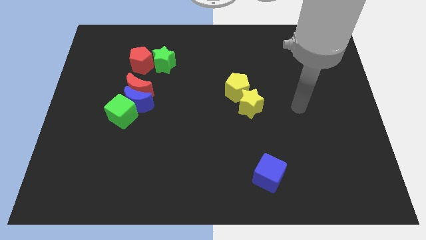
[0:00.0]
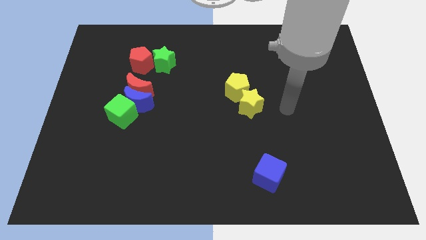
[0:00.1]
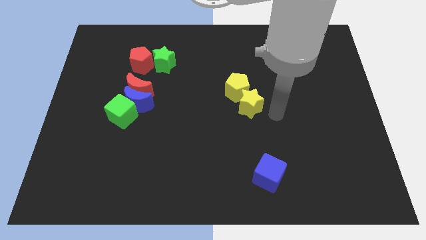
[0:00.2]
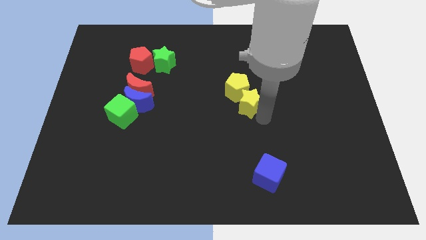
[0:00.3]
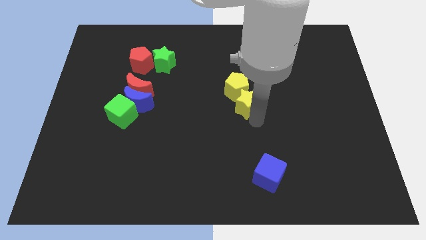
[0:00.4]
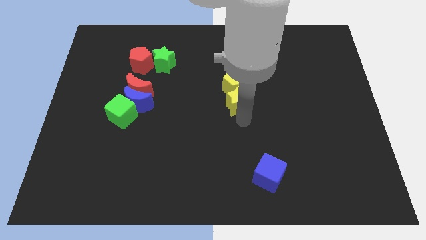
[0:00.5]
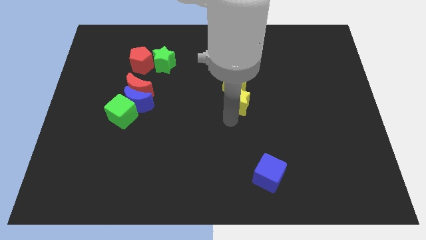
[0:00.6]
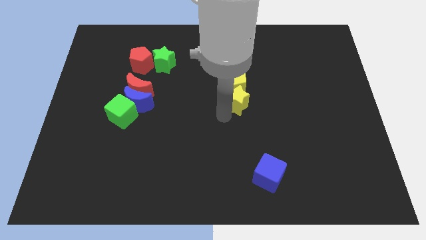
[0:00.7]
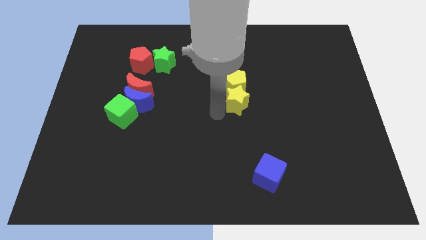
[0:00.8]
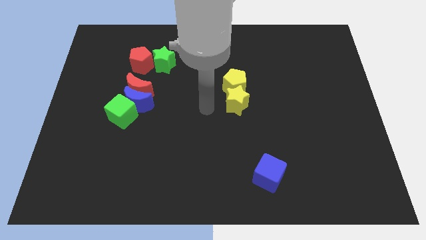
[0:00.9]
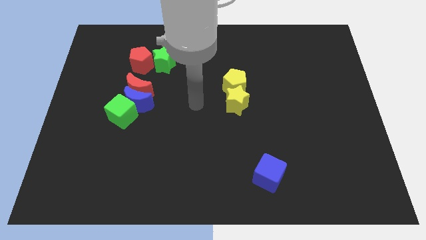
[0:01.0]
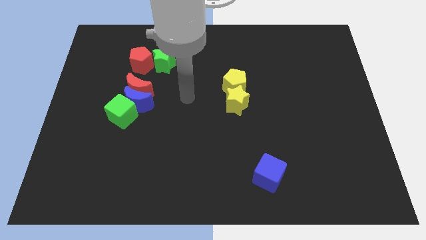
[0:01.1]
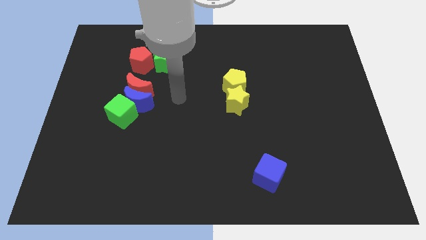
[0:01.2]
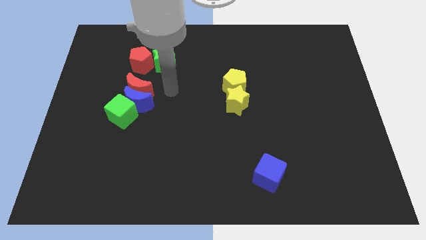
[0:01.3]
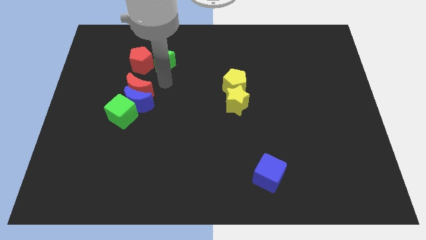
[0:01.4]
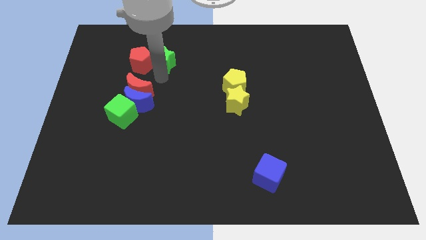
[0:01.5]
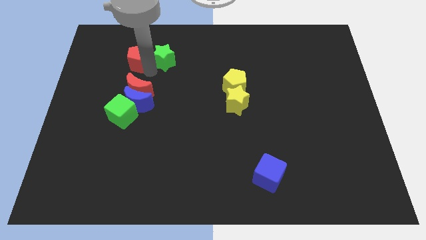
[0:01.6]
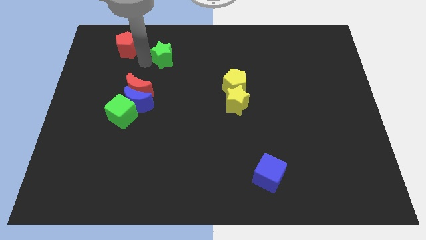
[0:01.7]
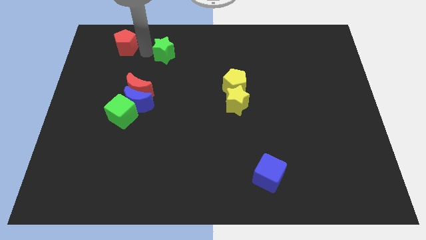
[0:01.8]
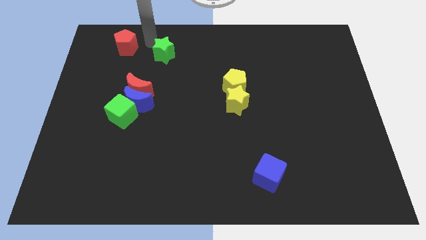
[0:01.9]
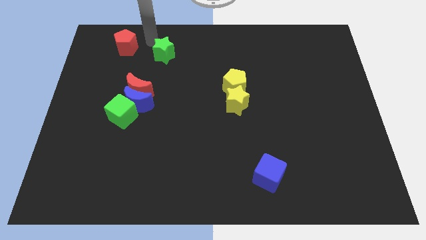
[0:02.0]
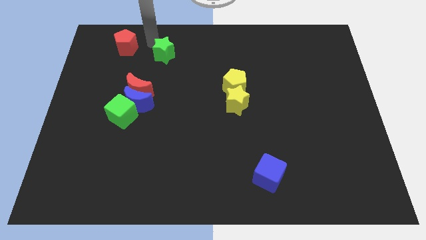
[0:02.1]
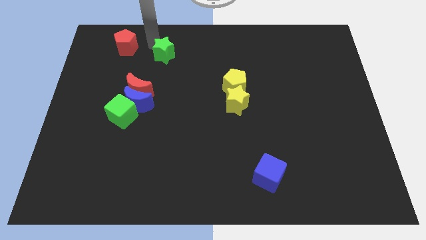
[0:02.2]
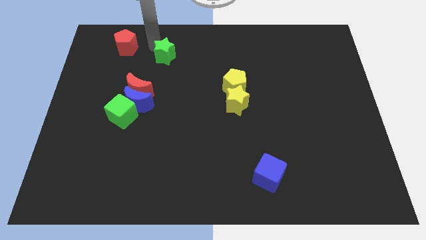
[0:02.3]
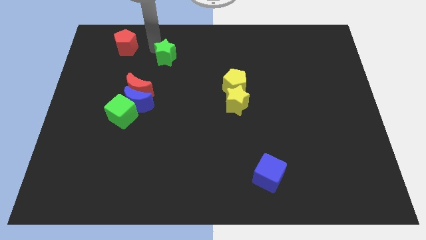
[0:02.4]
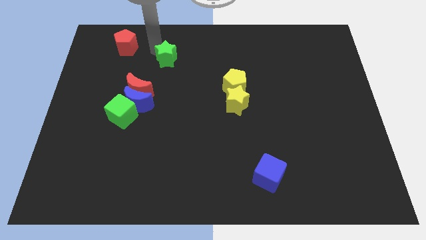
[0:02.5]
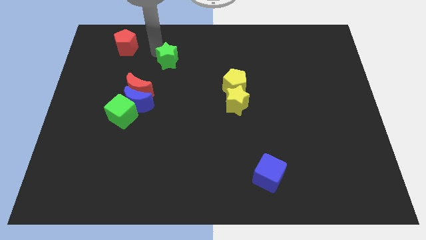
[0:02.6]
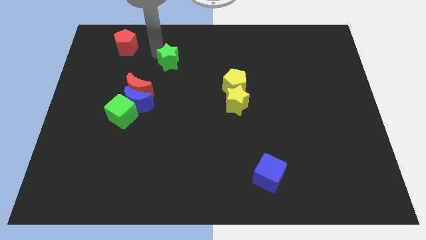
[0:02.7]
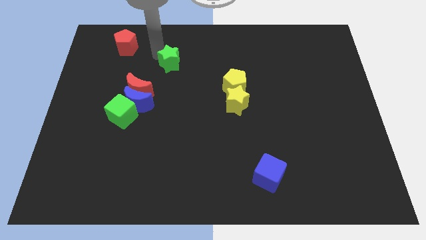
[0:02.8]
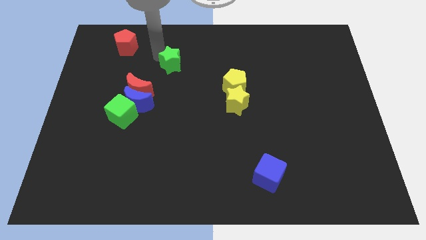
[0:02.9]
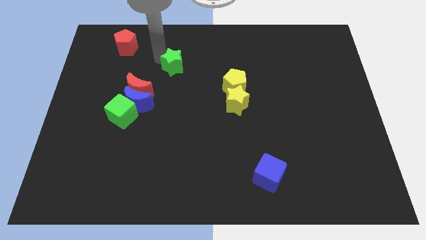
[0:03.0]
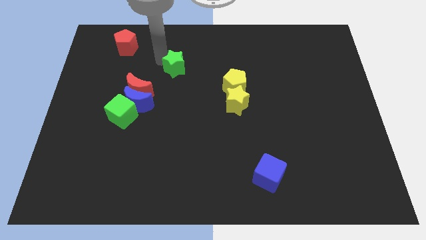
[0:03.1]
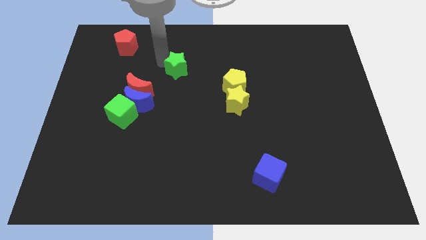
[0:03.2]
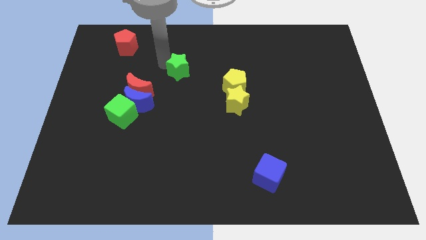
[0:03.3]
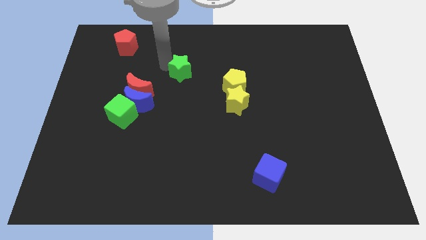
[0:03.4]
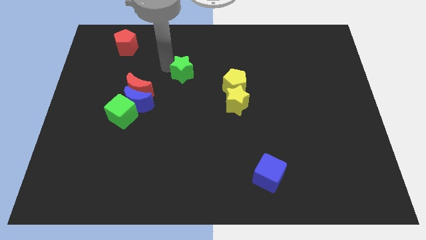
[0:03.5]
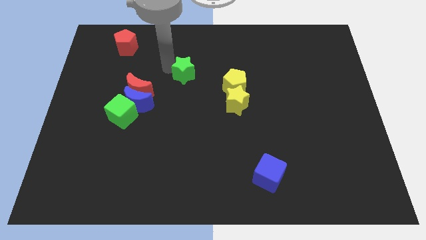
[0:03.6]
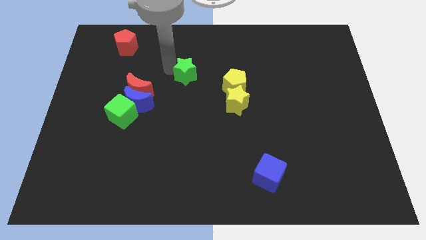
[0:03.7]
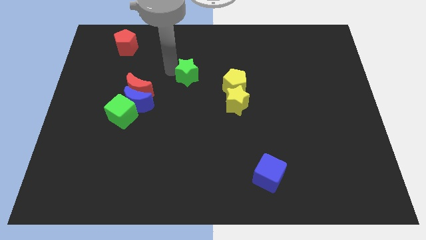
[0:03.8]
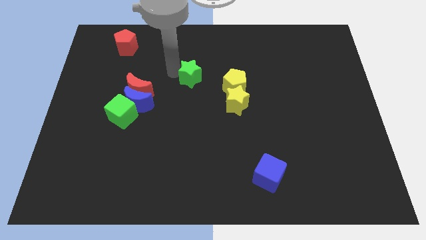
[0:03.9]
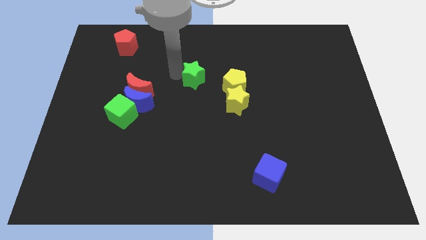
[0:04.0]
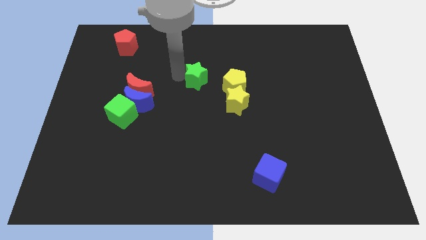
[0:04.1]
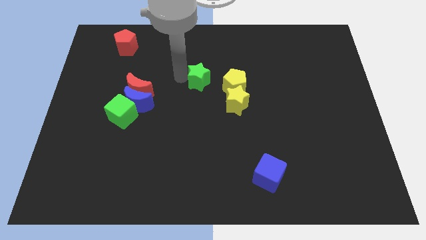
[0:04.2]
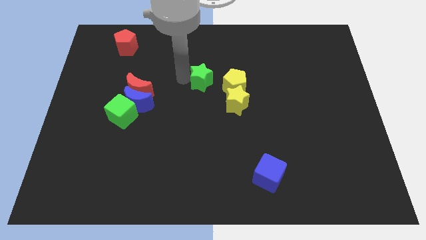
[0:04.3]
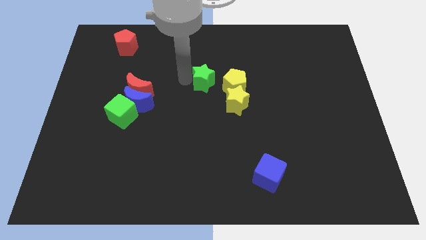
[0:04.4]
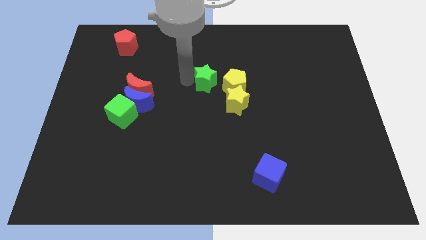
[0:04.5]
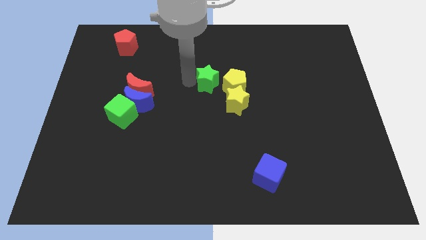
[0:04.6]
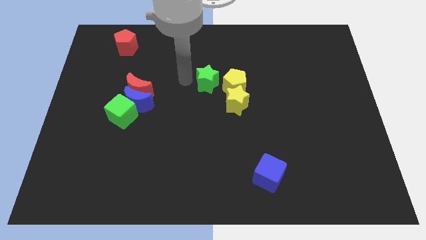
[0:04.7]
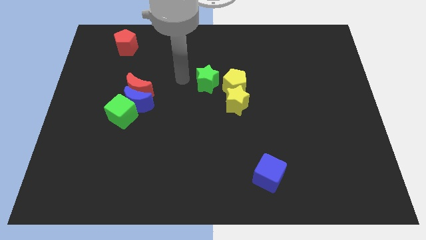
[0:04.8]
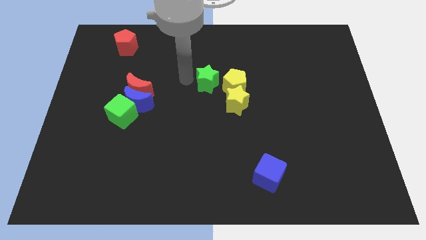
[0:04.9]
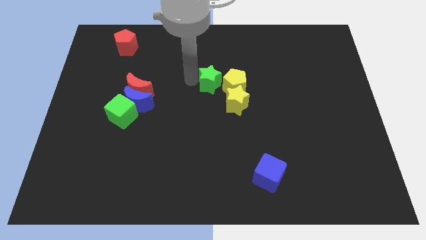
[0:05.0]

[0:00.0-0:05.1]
put the green star next to the yellow pentagon

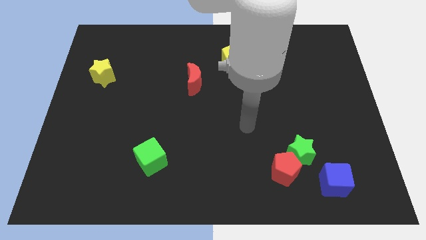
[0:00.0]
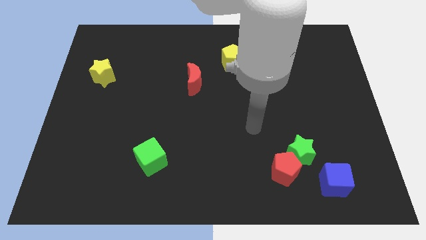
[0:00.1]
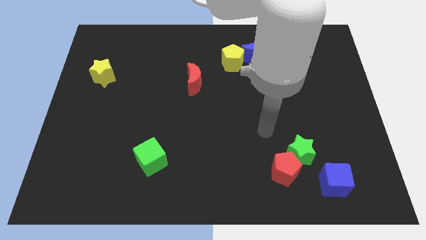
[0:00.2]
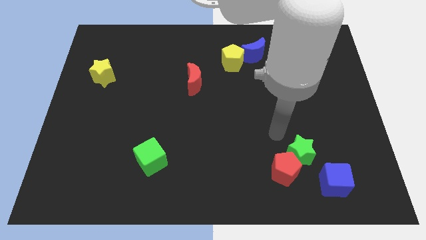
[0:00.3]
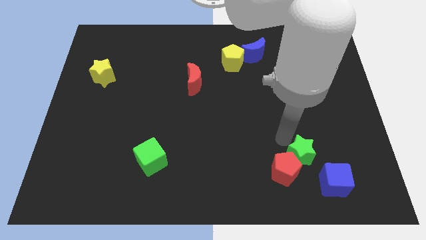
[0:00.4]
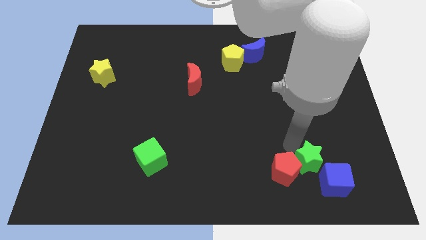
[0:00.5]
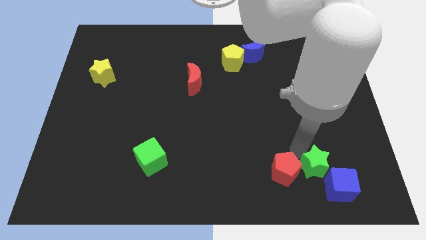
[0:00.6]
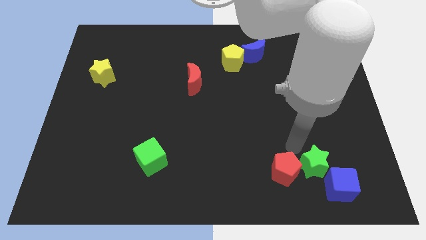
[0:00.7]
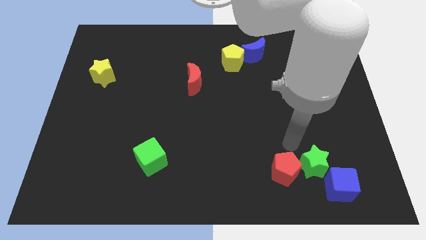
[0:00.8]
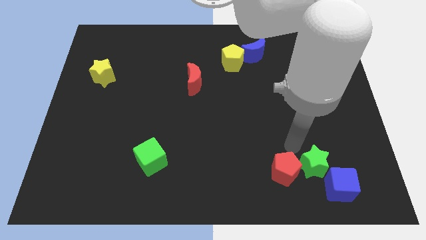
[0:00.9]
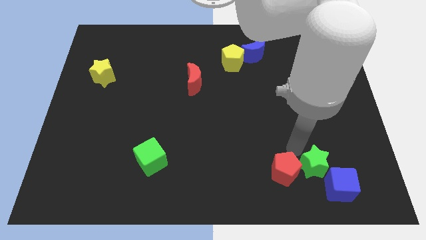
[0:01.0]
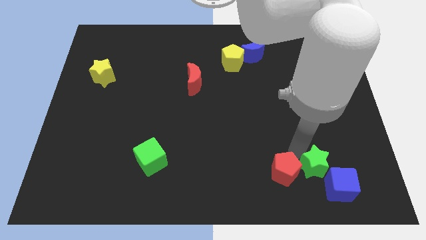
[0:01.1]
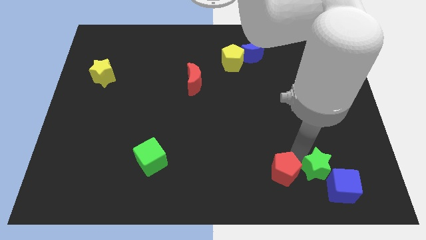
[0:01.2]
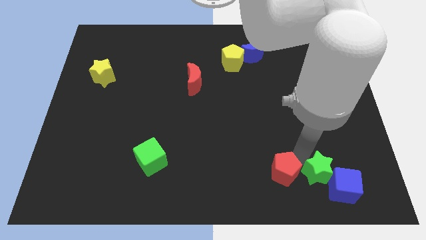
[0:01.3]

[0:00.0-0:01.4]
put the green star towards the blue cube
